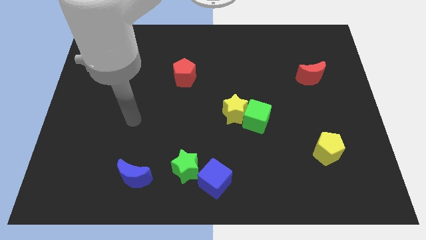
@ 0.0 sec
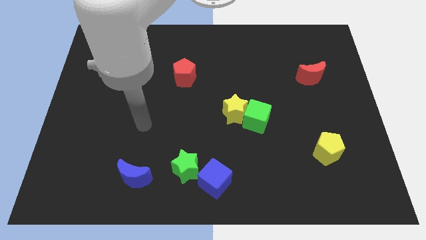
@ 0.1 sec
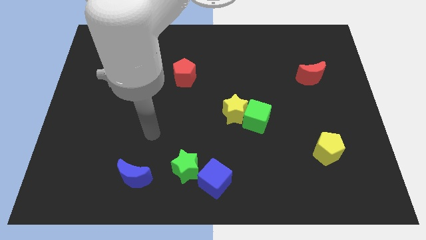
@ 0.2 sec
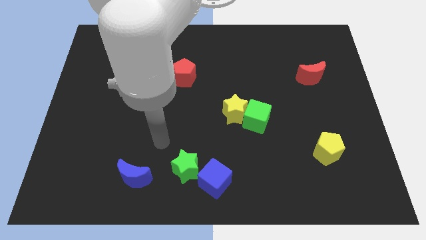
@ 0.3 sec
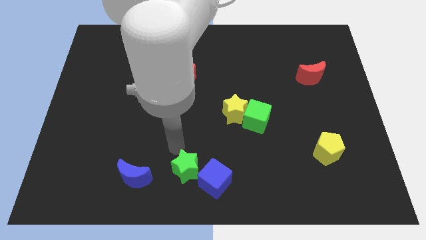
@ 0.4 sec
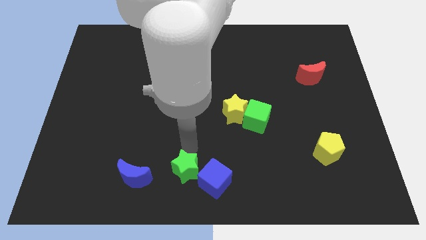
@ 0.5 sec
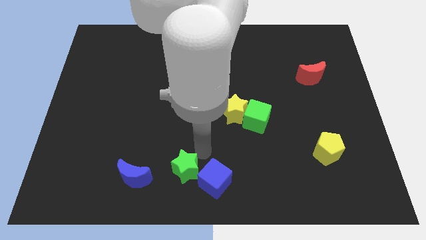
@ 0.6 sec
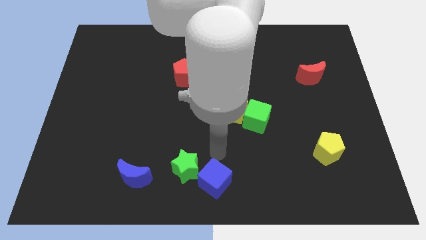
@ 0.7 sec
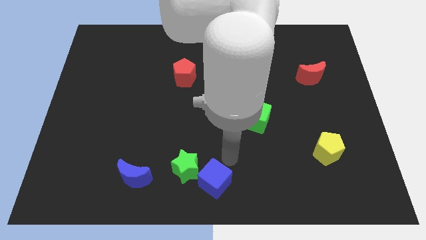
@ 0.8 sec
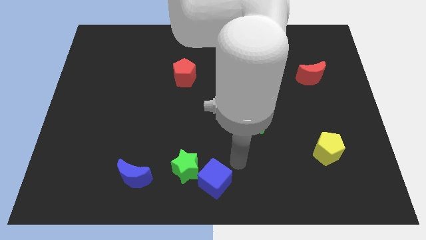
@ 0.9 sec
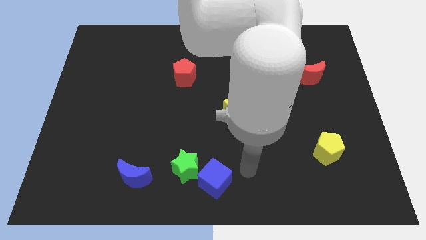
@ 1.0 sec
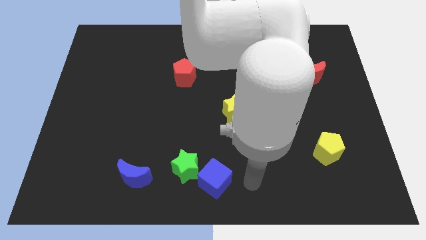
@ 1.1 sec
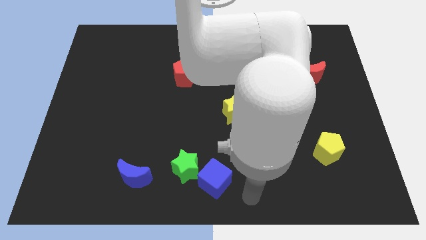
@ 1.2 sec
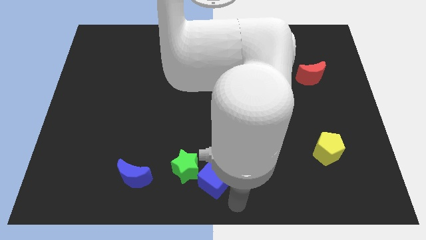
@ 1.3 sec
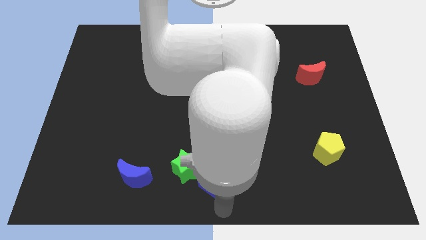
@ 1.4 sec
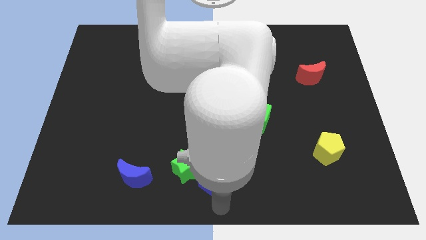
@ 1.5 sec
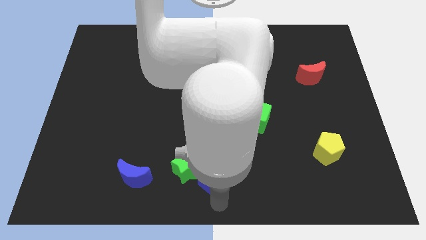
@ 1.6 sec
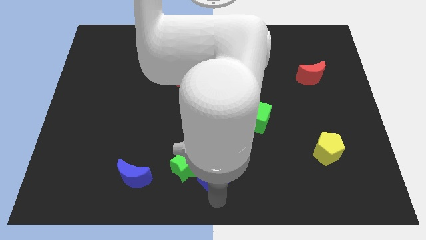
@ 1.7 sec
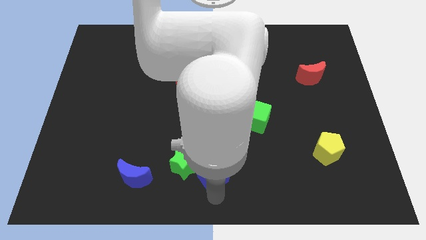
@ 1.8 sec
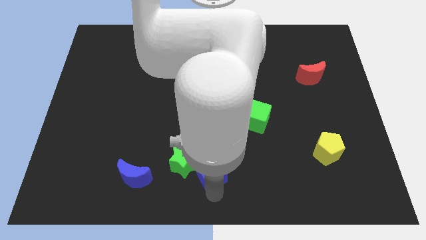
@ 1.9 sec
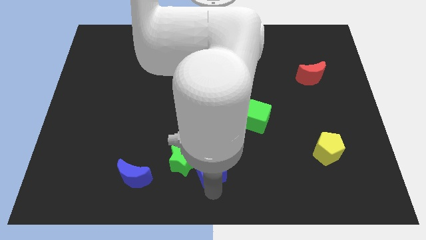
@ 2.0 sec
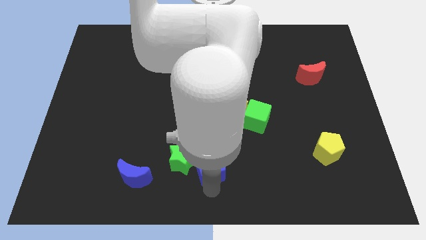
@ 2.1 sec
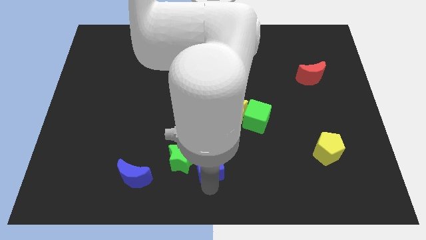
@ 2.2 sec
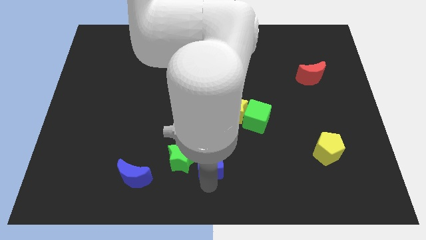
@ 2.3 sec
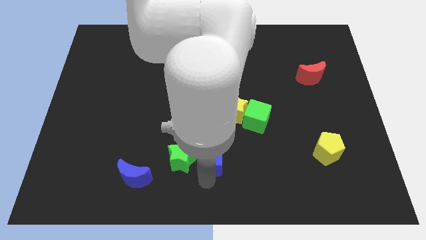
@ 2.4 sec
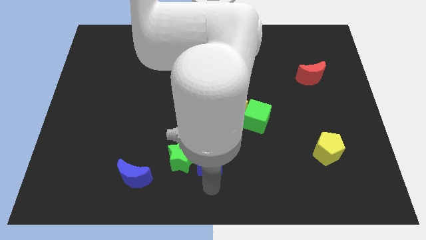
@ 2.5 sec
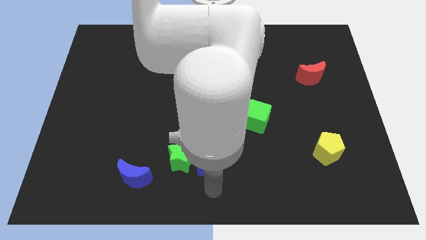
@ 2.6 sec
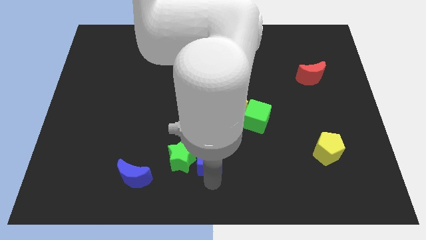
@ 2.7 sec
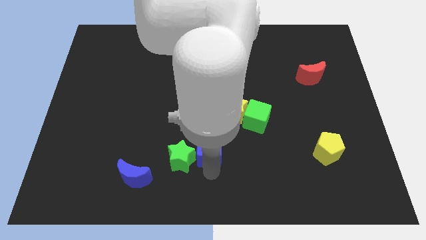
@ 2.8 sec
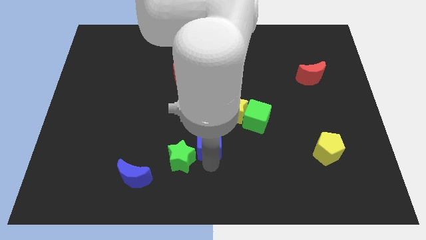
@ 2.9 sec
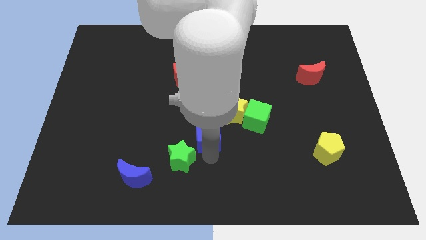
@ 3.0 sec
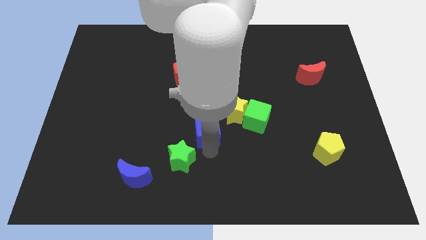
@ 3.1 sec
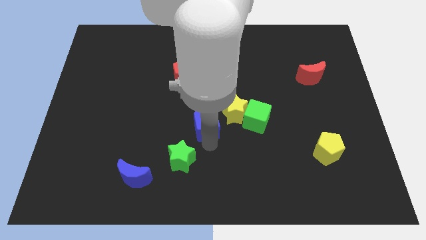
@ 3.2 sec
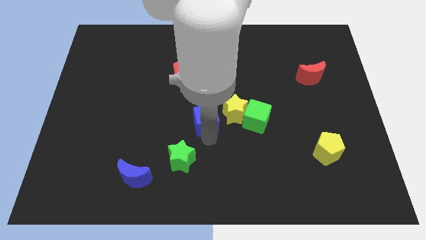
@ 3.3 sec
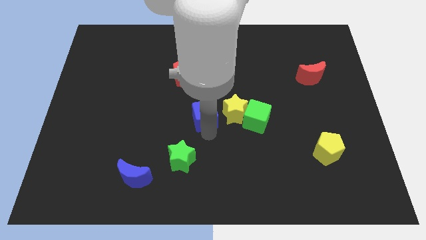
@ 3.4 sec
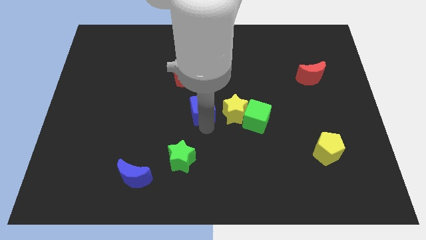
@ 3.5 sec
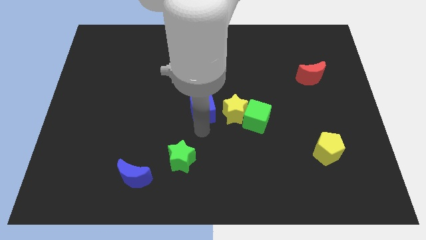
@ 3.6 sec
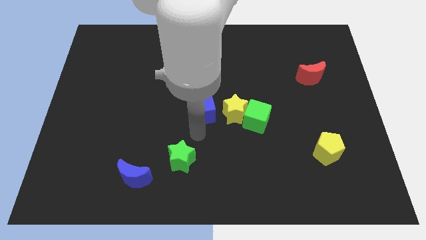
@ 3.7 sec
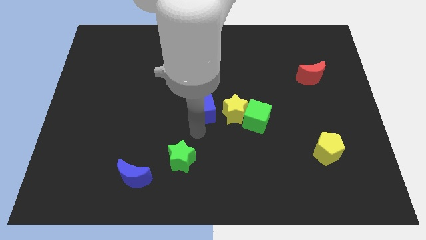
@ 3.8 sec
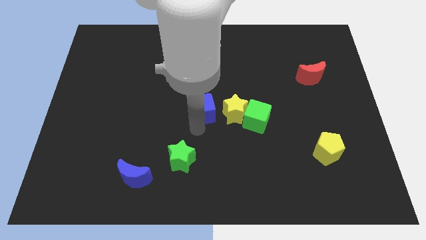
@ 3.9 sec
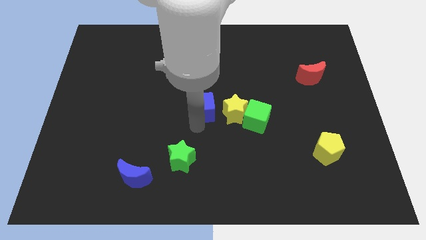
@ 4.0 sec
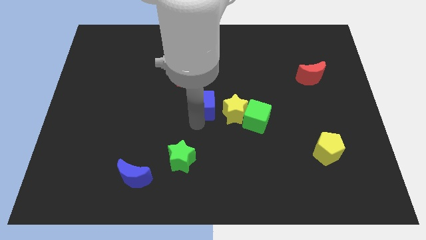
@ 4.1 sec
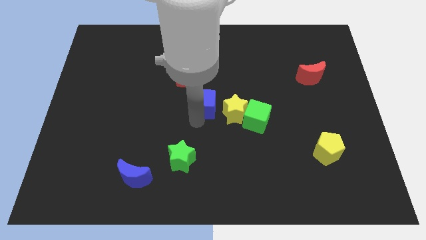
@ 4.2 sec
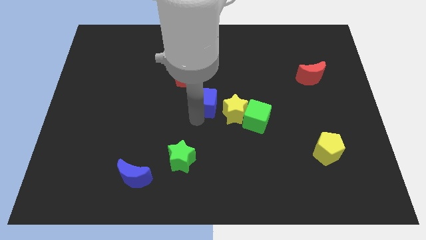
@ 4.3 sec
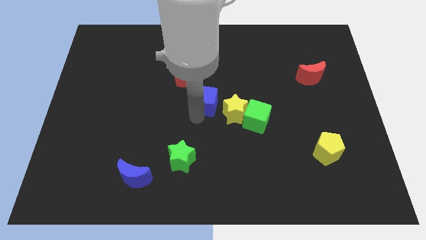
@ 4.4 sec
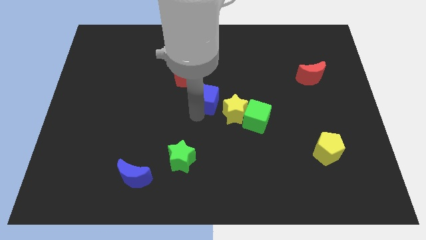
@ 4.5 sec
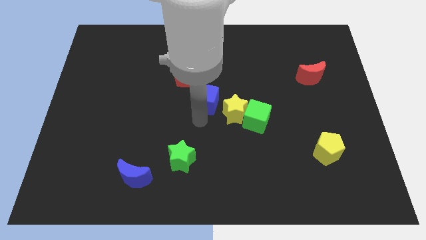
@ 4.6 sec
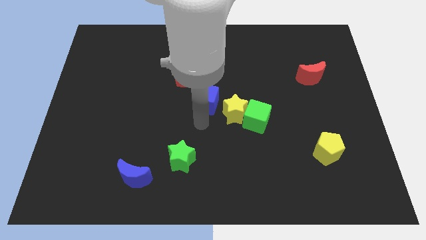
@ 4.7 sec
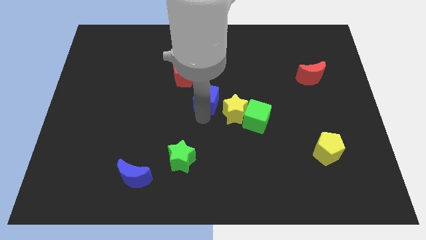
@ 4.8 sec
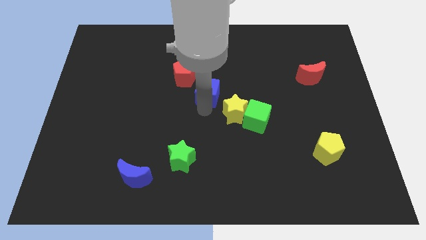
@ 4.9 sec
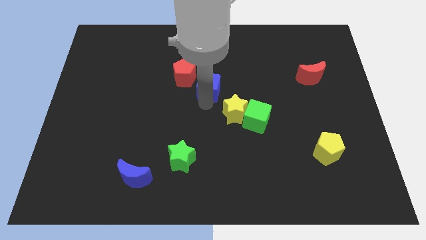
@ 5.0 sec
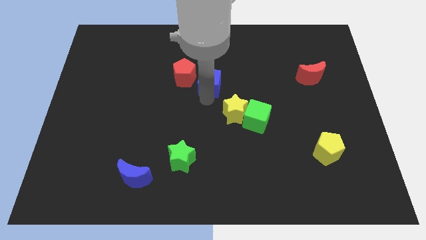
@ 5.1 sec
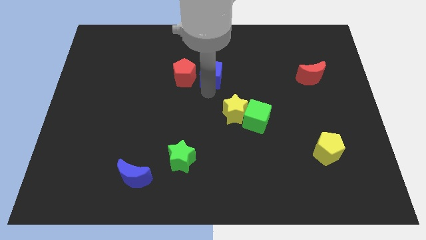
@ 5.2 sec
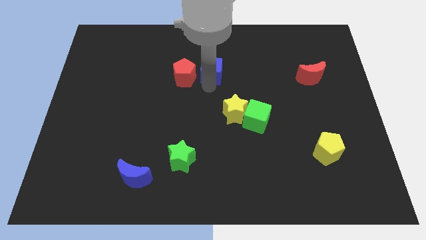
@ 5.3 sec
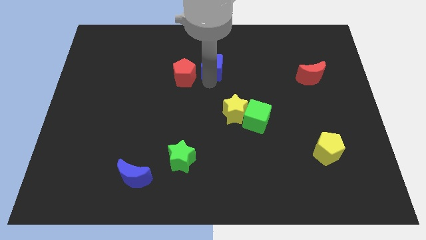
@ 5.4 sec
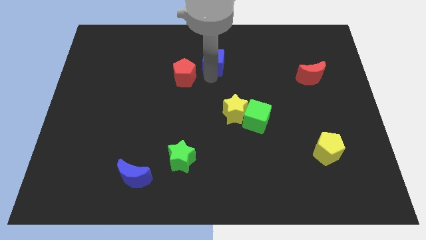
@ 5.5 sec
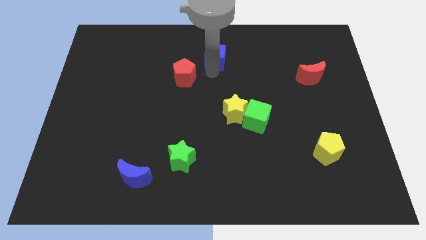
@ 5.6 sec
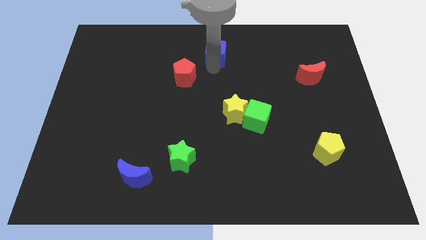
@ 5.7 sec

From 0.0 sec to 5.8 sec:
put the blue cube to the towards your base

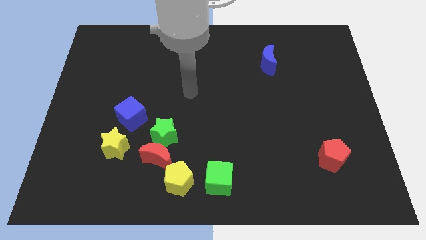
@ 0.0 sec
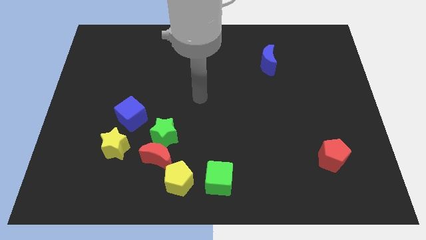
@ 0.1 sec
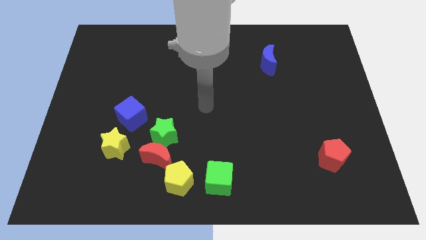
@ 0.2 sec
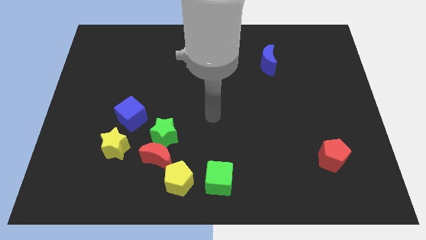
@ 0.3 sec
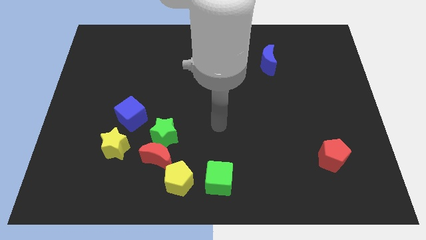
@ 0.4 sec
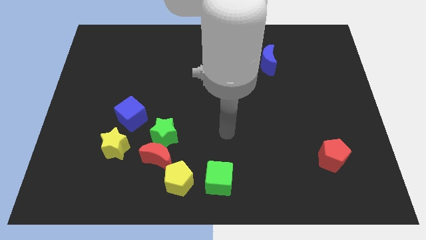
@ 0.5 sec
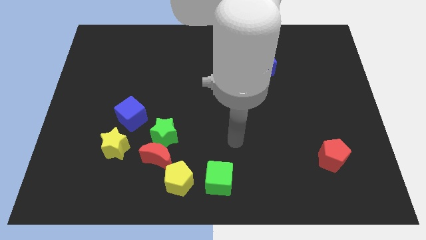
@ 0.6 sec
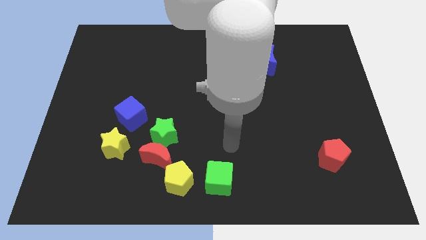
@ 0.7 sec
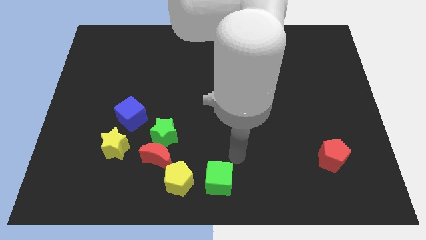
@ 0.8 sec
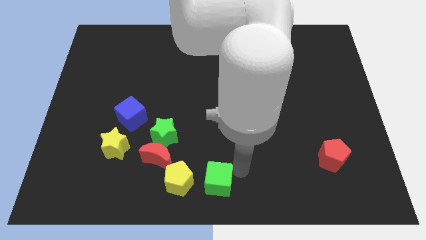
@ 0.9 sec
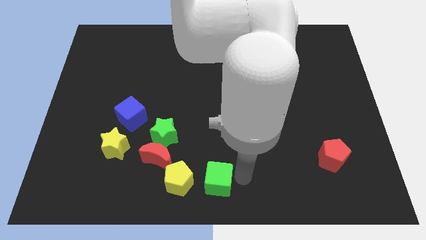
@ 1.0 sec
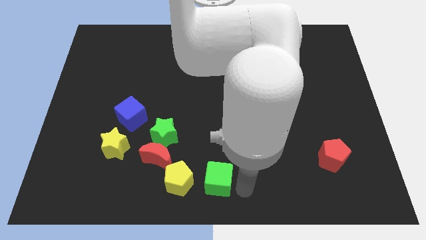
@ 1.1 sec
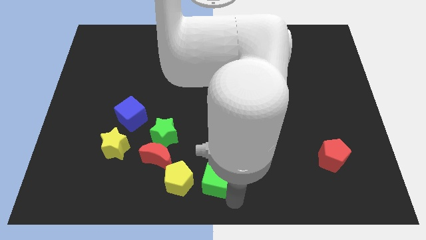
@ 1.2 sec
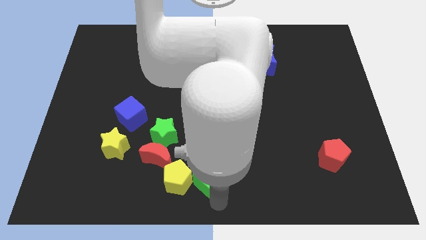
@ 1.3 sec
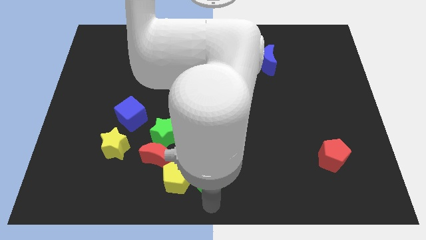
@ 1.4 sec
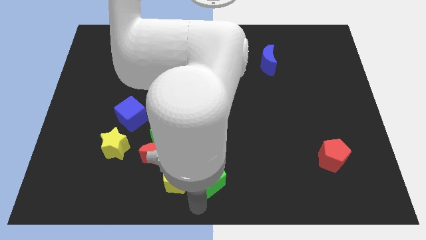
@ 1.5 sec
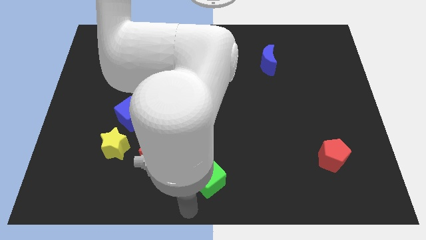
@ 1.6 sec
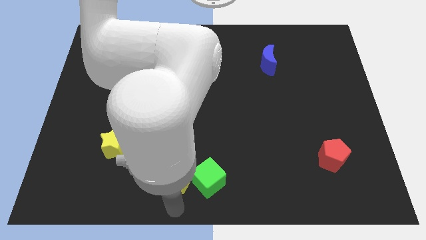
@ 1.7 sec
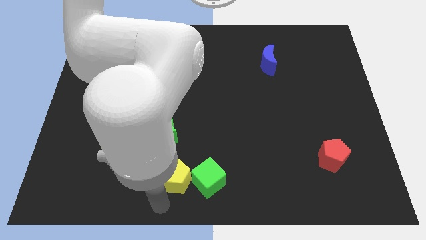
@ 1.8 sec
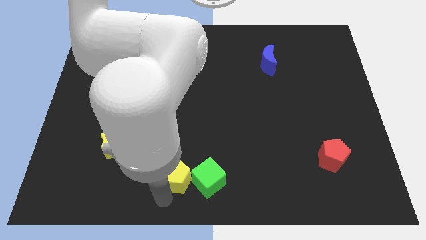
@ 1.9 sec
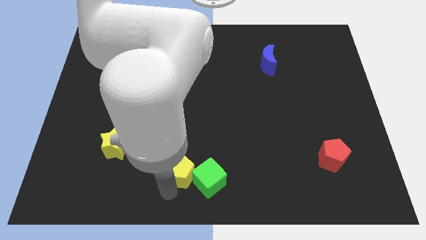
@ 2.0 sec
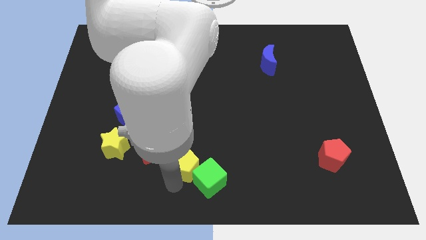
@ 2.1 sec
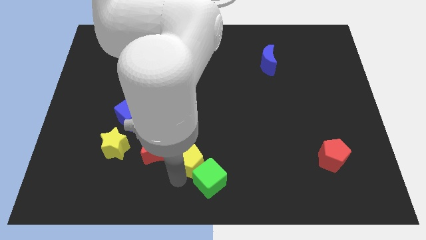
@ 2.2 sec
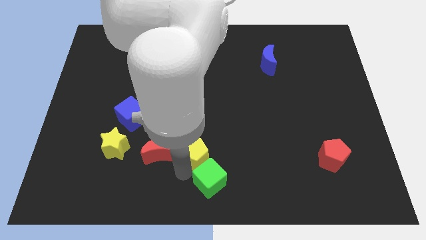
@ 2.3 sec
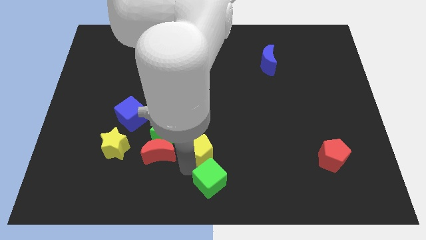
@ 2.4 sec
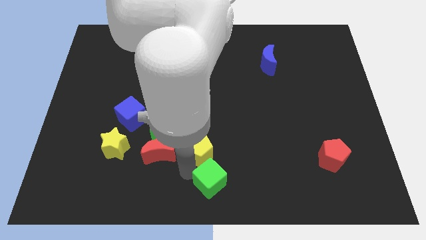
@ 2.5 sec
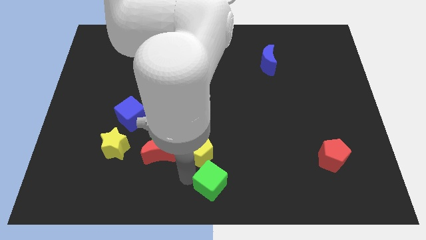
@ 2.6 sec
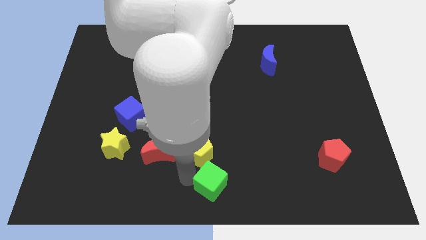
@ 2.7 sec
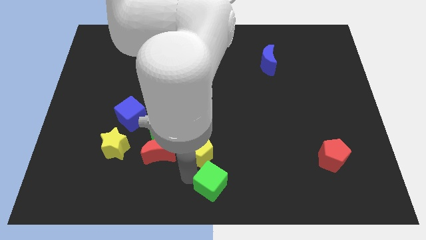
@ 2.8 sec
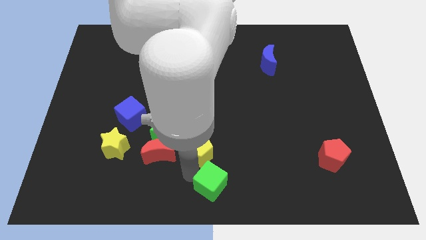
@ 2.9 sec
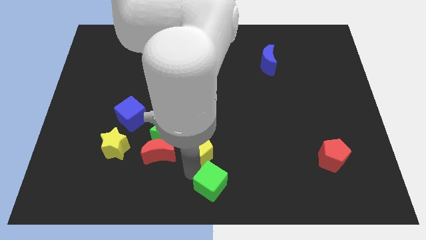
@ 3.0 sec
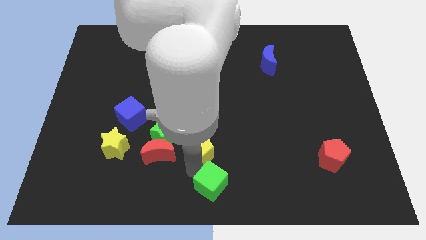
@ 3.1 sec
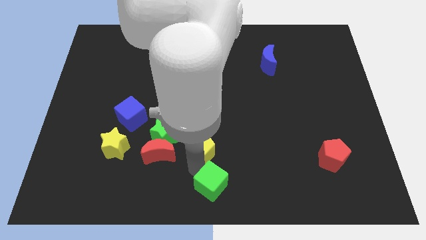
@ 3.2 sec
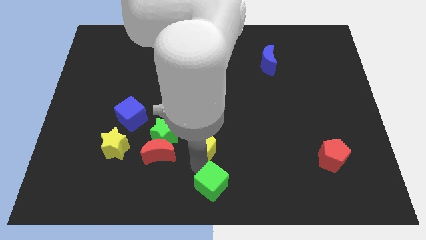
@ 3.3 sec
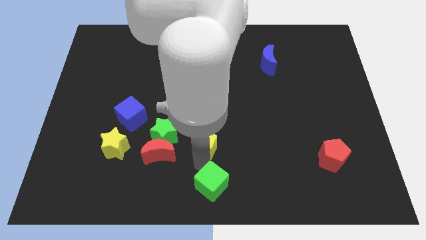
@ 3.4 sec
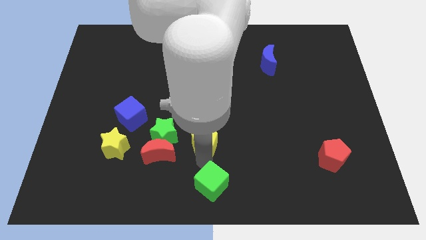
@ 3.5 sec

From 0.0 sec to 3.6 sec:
push the yellow pentagon to the middle of the board
